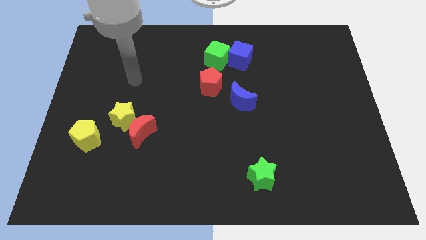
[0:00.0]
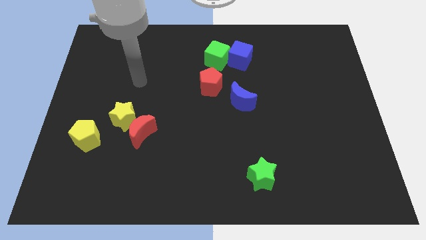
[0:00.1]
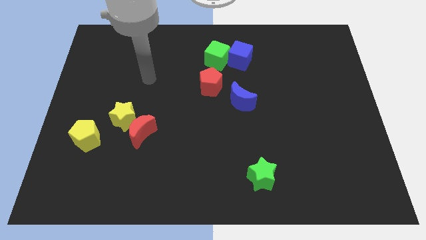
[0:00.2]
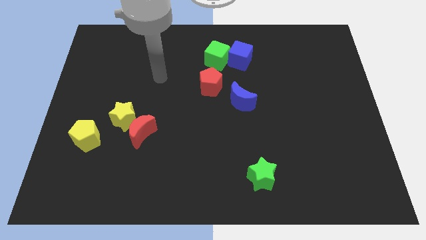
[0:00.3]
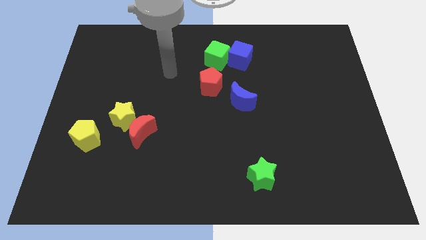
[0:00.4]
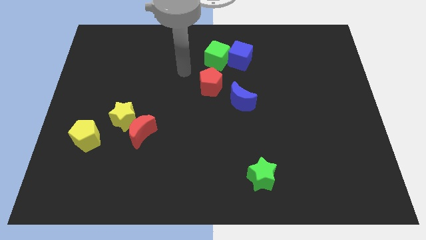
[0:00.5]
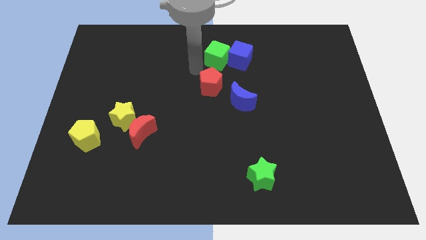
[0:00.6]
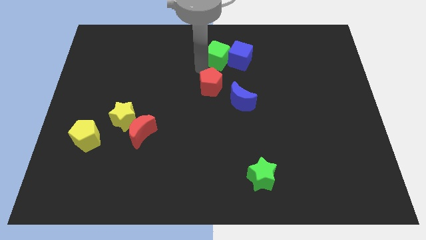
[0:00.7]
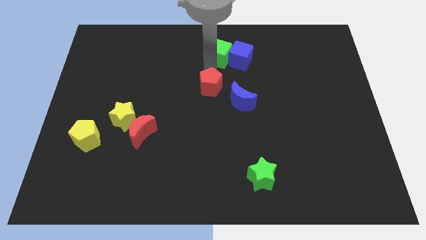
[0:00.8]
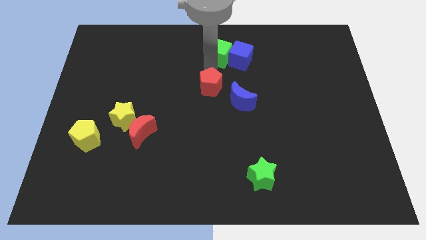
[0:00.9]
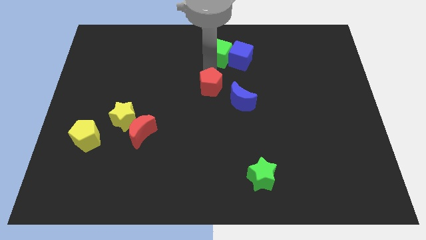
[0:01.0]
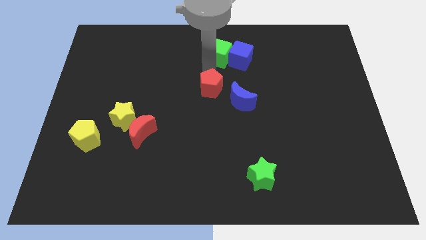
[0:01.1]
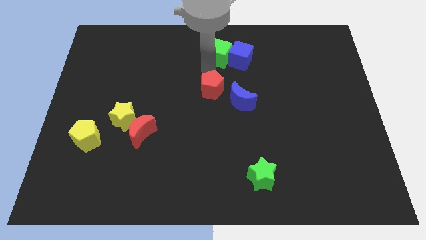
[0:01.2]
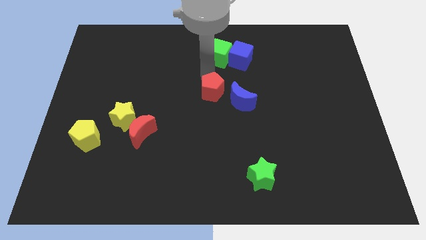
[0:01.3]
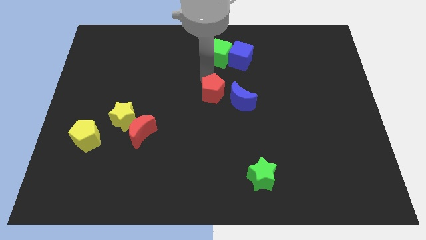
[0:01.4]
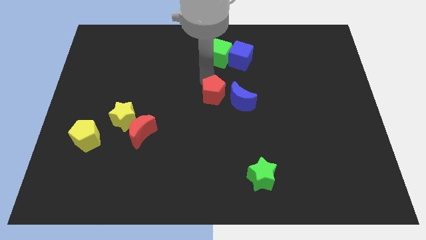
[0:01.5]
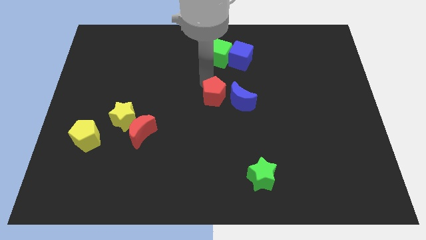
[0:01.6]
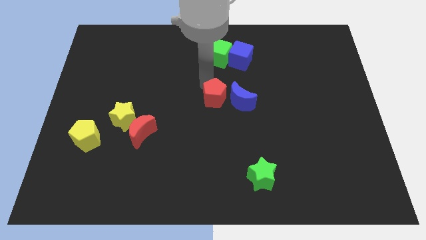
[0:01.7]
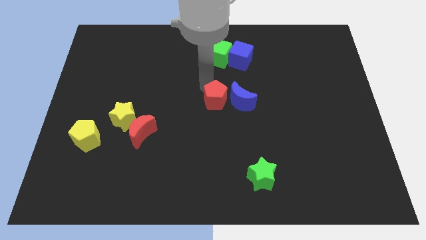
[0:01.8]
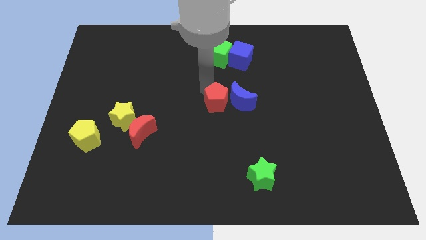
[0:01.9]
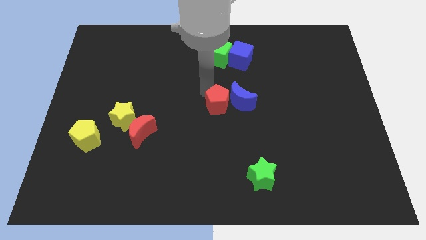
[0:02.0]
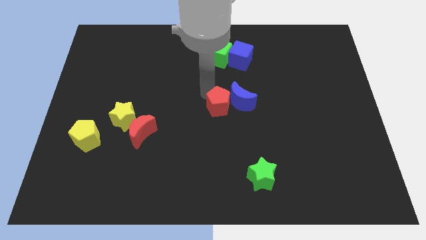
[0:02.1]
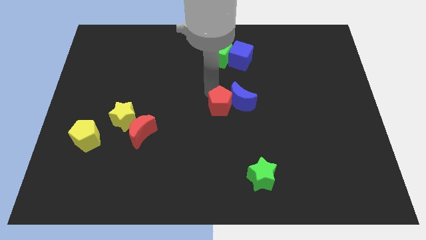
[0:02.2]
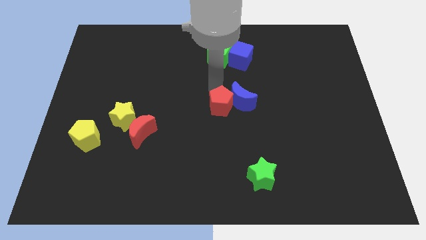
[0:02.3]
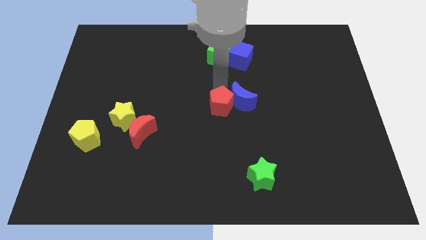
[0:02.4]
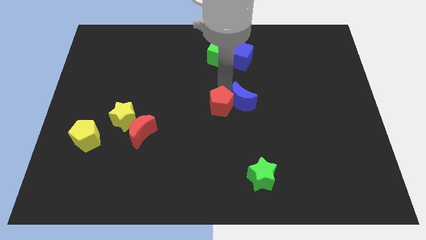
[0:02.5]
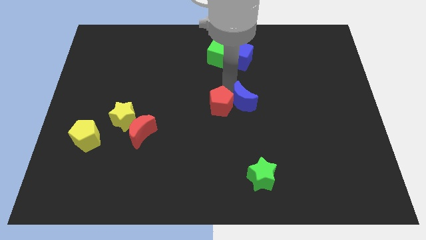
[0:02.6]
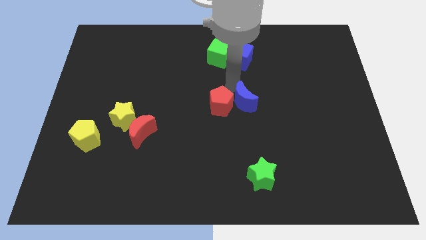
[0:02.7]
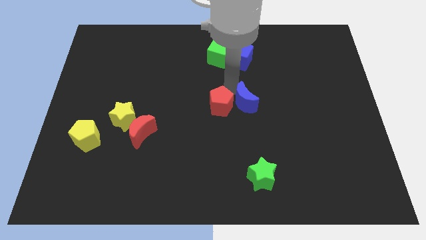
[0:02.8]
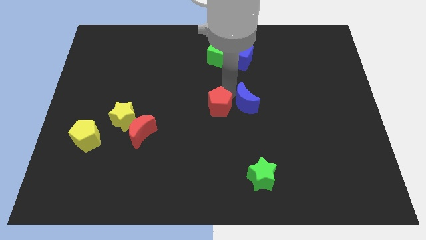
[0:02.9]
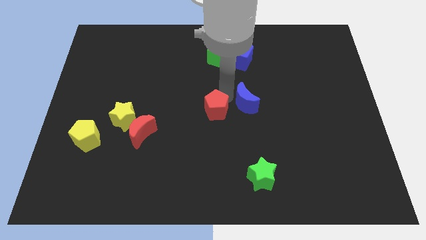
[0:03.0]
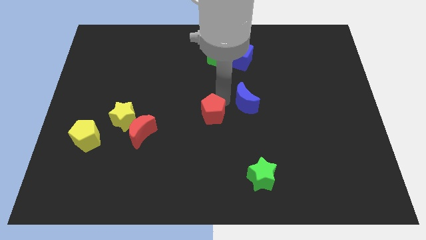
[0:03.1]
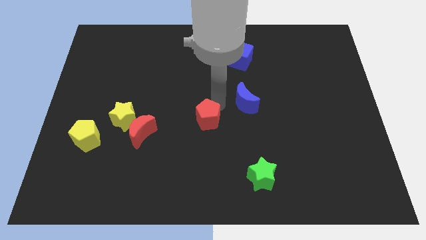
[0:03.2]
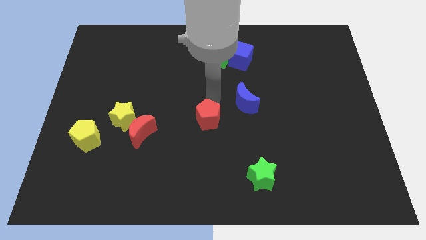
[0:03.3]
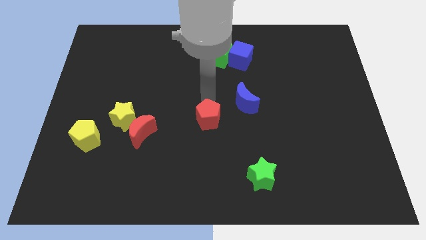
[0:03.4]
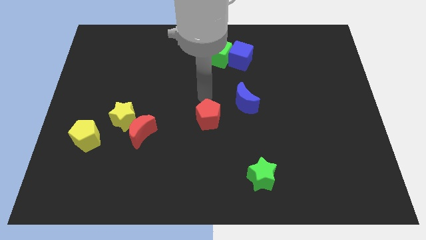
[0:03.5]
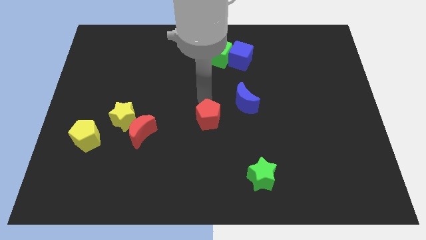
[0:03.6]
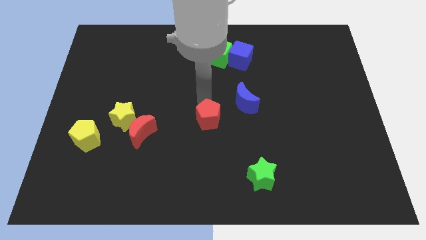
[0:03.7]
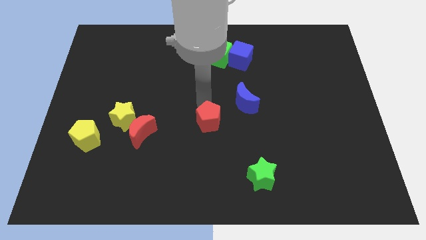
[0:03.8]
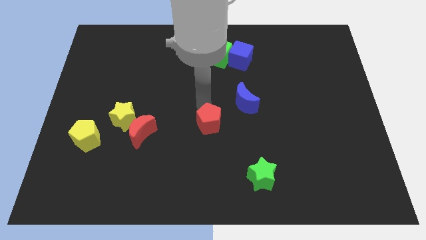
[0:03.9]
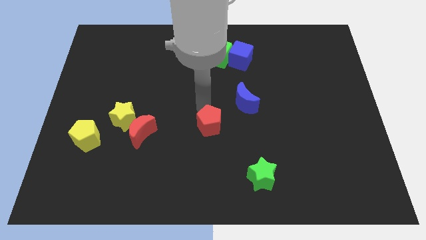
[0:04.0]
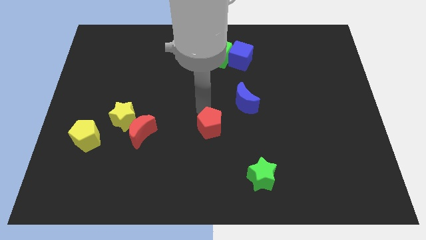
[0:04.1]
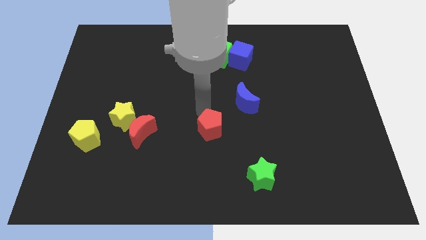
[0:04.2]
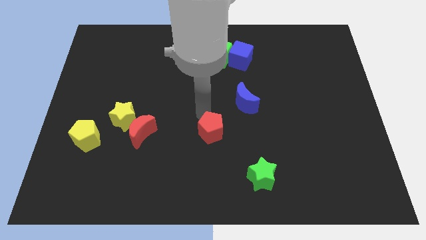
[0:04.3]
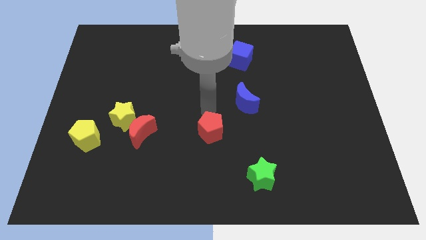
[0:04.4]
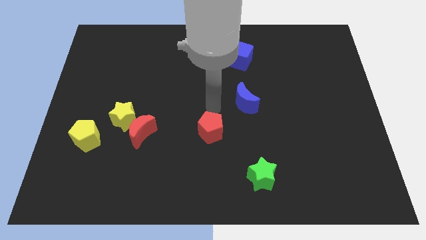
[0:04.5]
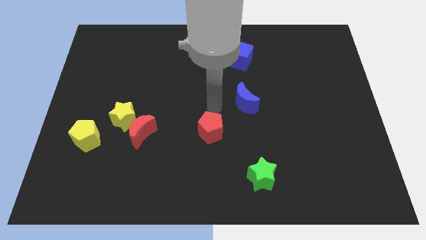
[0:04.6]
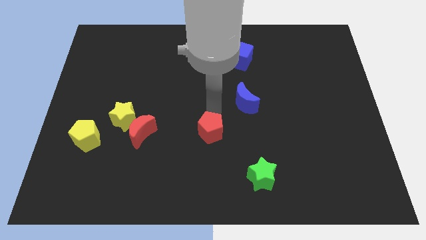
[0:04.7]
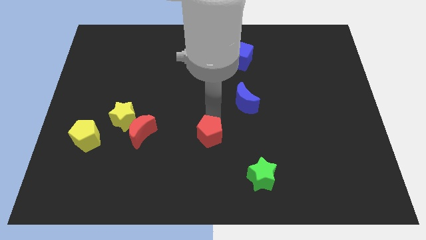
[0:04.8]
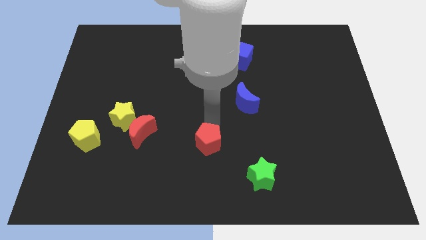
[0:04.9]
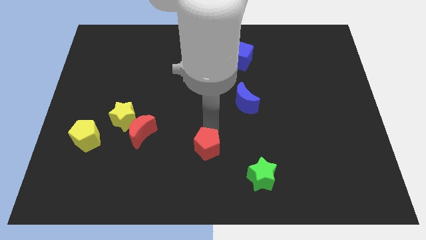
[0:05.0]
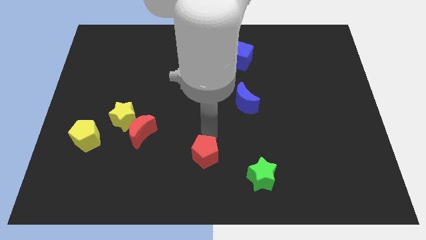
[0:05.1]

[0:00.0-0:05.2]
slide the red pentagon to the bottom

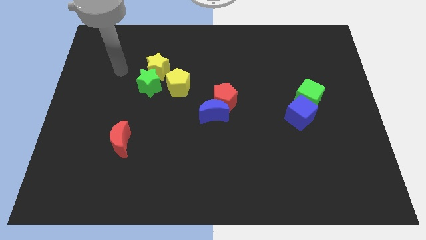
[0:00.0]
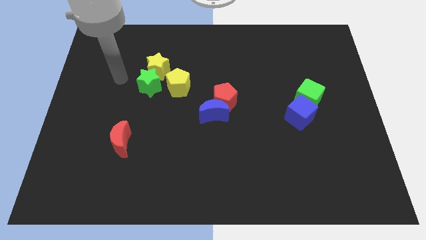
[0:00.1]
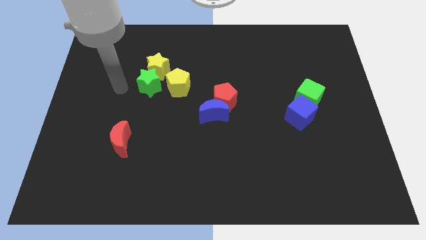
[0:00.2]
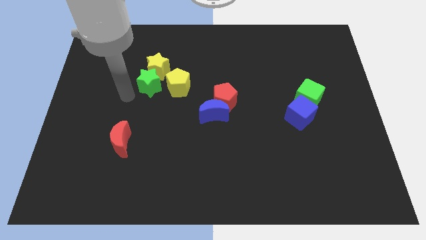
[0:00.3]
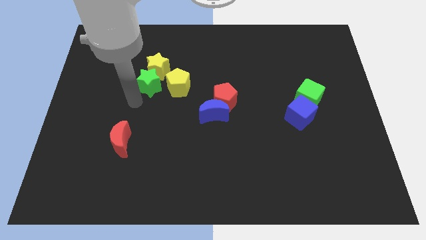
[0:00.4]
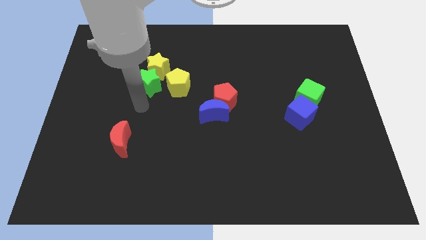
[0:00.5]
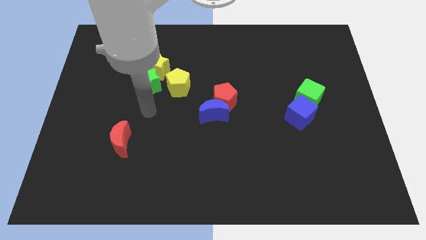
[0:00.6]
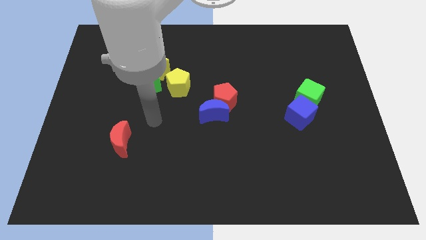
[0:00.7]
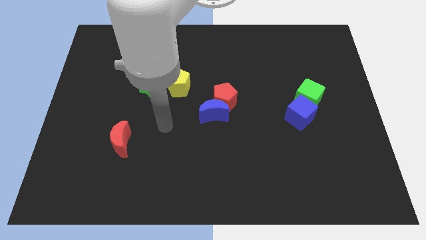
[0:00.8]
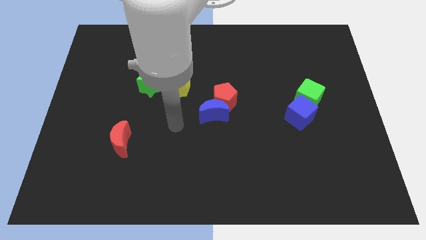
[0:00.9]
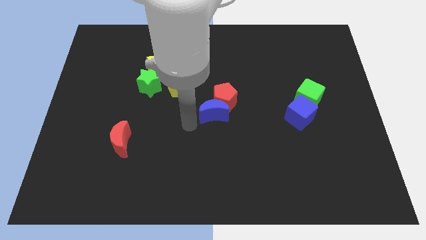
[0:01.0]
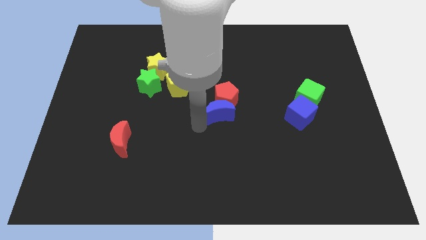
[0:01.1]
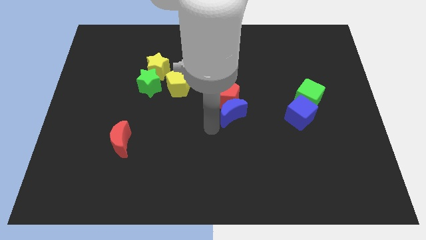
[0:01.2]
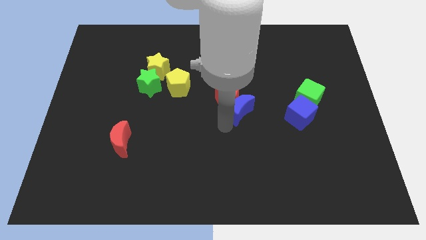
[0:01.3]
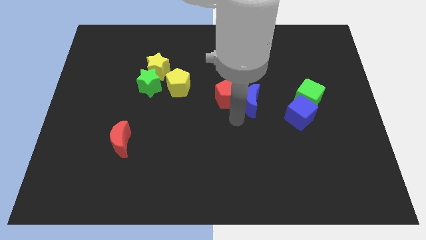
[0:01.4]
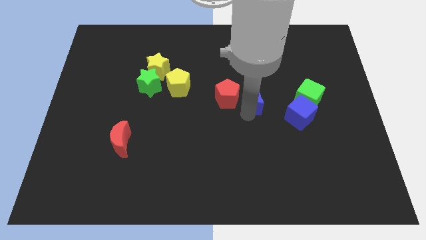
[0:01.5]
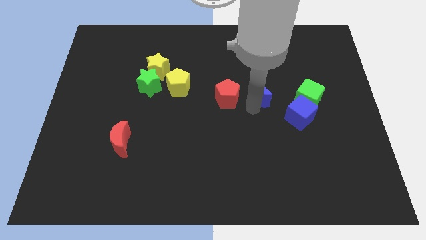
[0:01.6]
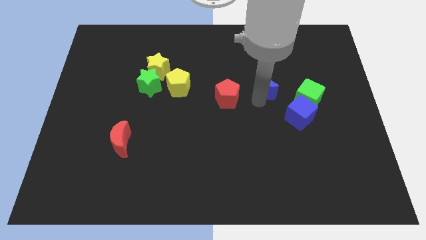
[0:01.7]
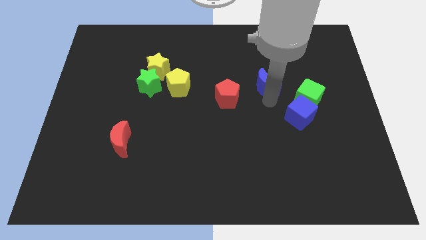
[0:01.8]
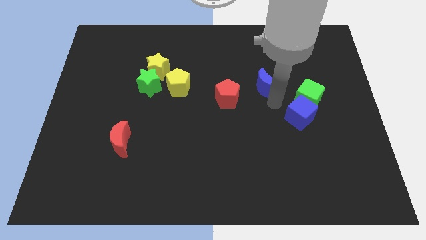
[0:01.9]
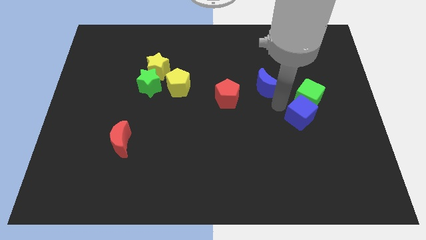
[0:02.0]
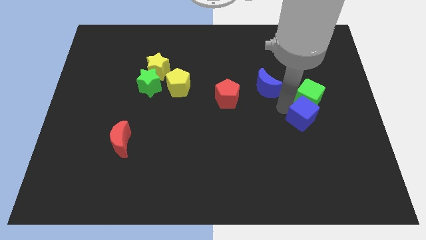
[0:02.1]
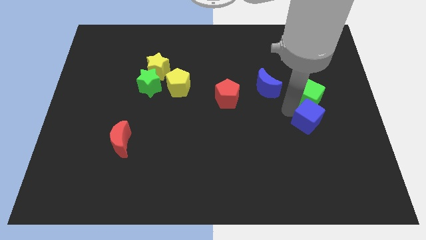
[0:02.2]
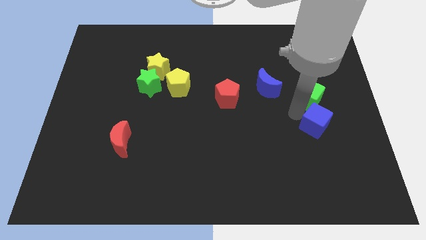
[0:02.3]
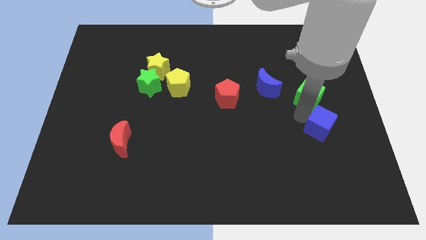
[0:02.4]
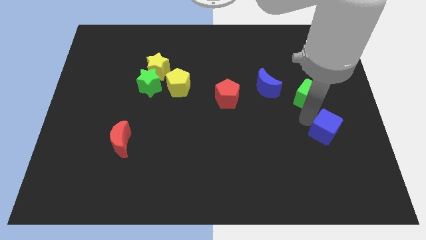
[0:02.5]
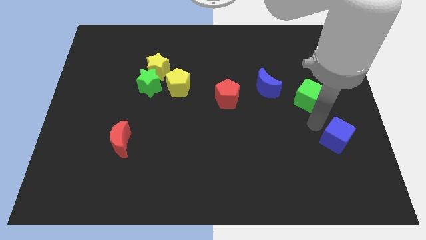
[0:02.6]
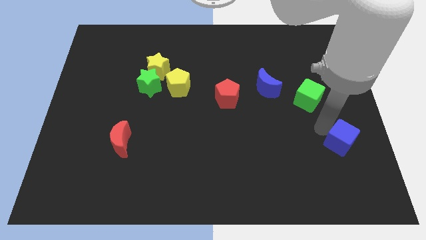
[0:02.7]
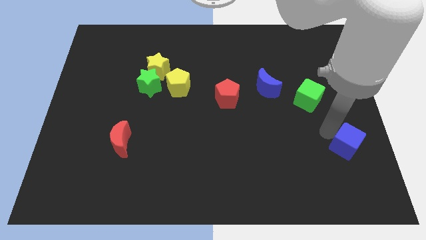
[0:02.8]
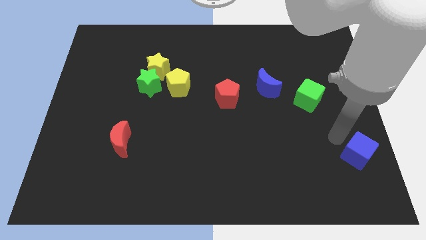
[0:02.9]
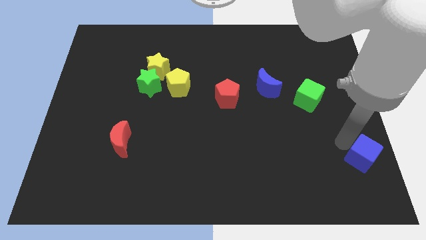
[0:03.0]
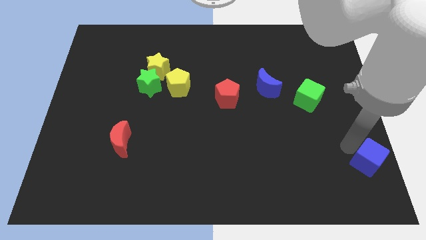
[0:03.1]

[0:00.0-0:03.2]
push the blue cube to the bottom right of the board
